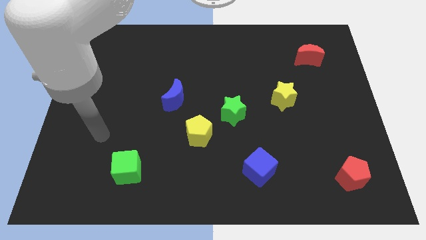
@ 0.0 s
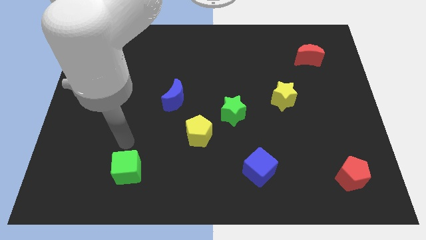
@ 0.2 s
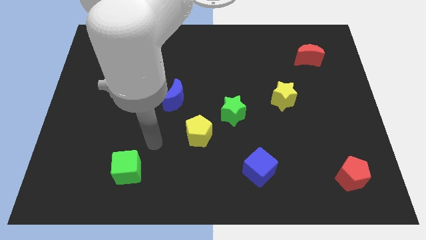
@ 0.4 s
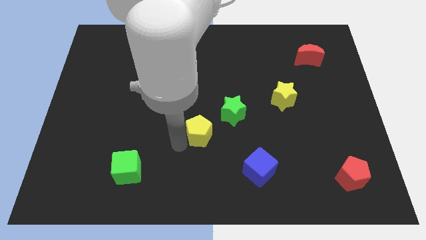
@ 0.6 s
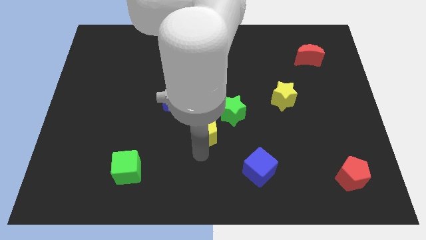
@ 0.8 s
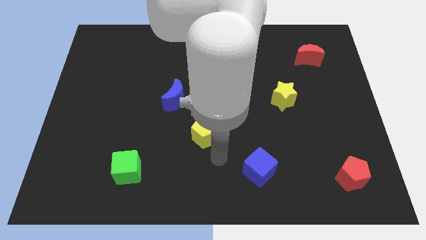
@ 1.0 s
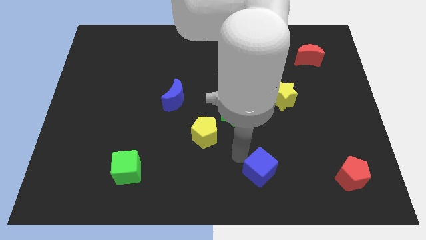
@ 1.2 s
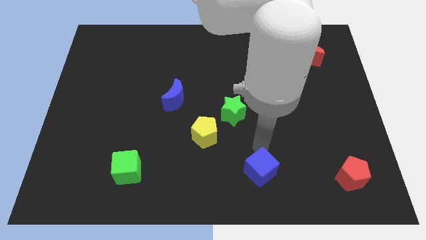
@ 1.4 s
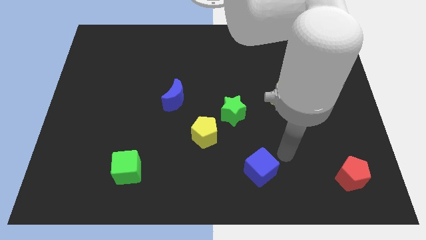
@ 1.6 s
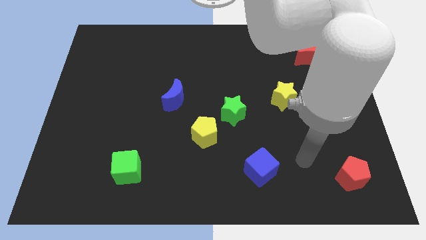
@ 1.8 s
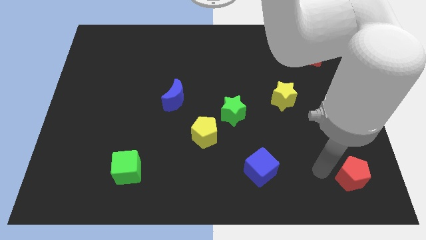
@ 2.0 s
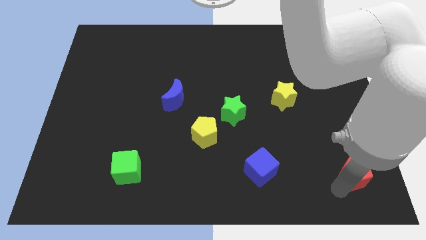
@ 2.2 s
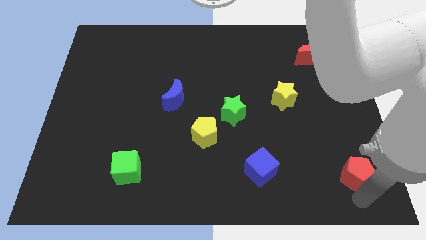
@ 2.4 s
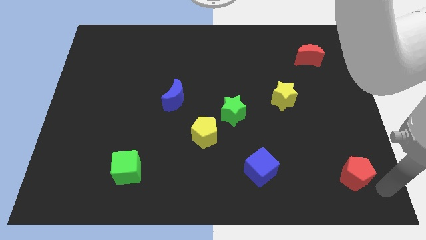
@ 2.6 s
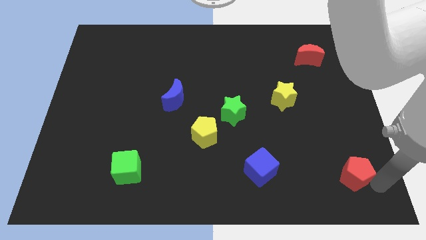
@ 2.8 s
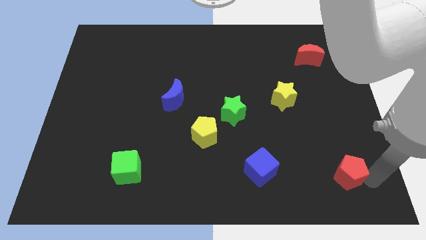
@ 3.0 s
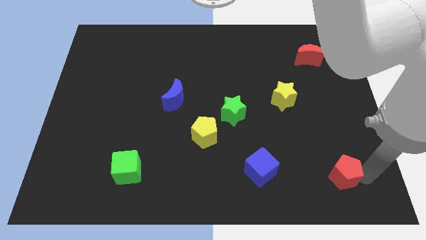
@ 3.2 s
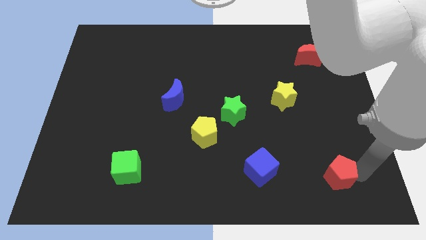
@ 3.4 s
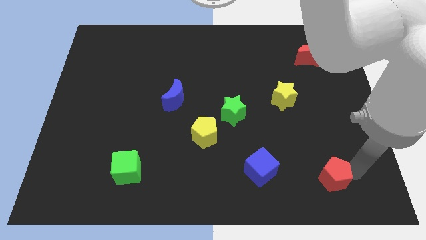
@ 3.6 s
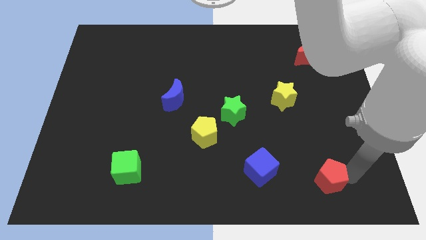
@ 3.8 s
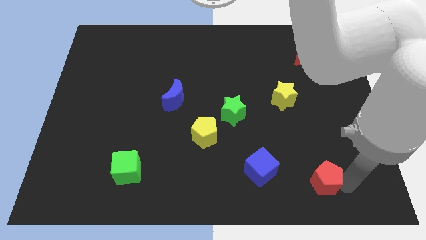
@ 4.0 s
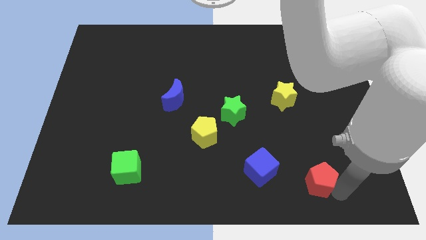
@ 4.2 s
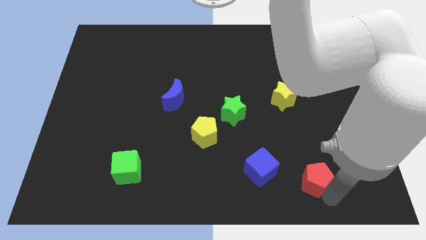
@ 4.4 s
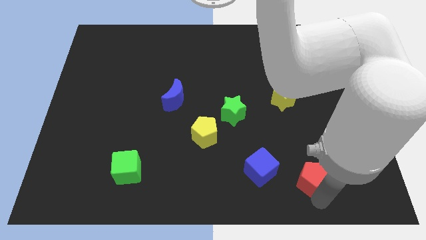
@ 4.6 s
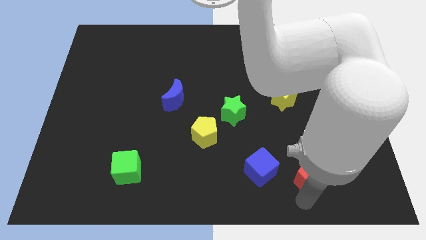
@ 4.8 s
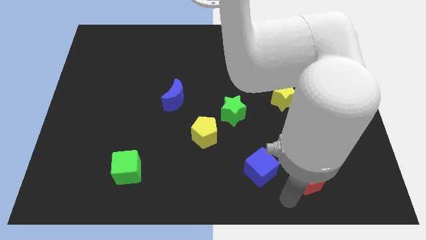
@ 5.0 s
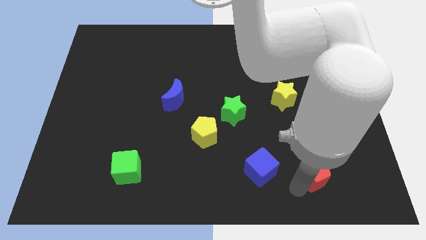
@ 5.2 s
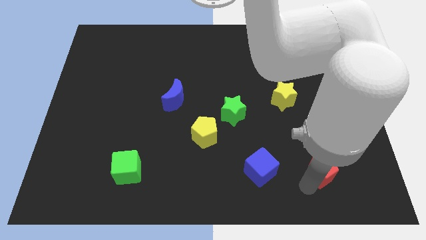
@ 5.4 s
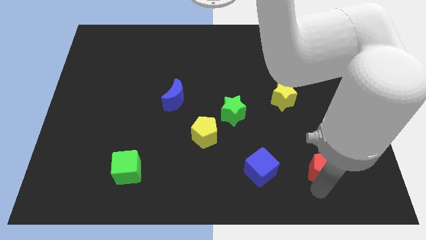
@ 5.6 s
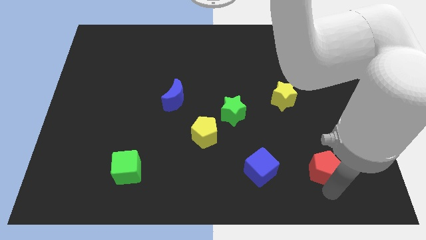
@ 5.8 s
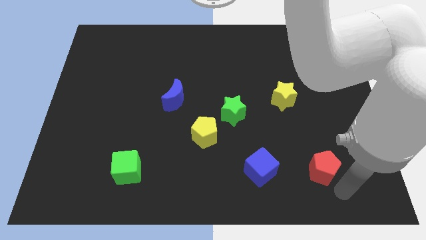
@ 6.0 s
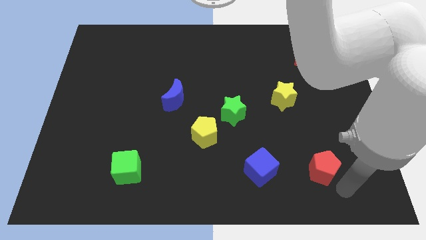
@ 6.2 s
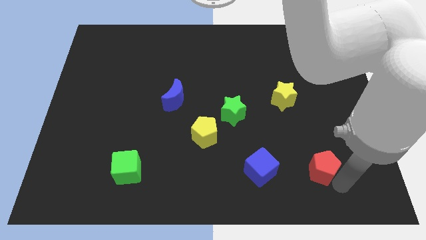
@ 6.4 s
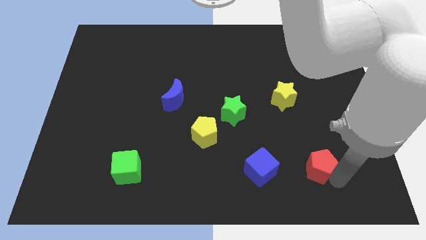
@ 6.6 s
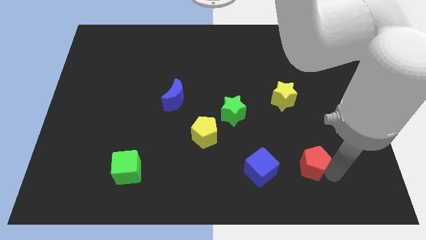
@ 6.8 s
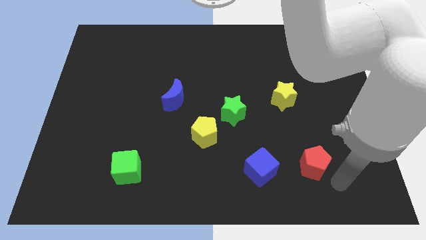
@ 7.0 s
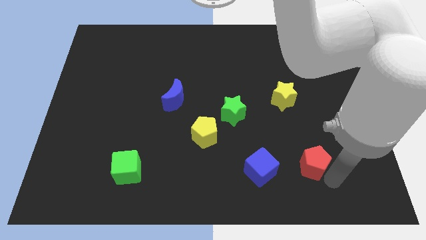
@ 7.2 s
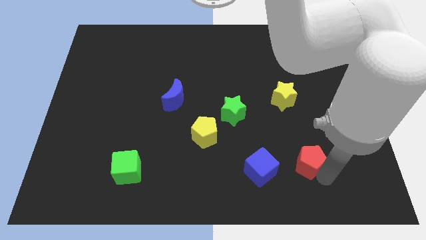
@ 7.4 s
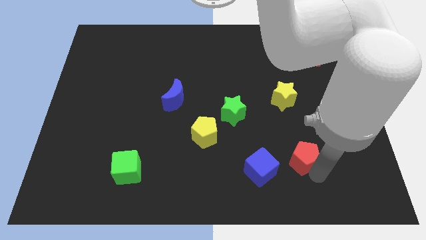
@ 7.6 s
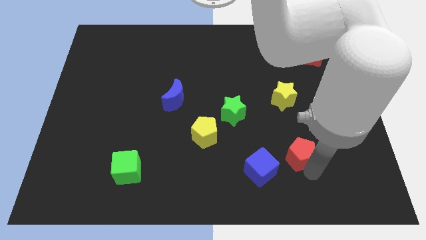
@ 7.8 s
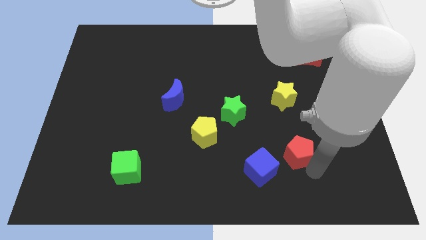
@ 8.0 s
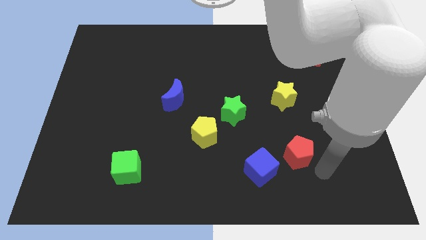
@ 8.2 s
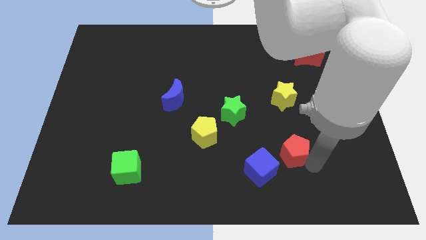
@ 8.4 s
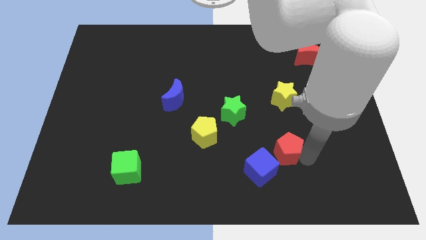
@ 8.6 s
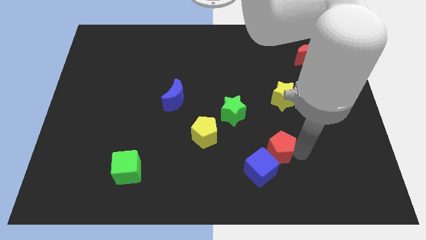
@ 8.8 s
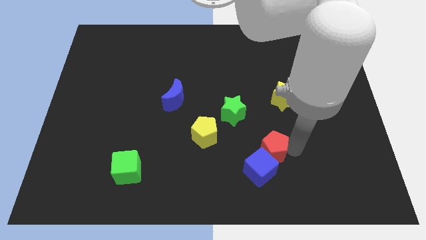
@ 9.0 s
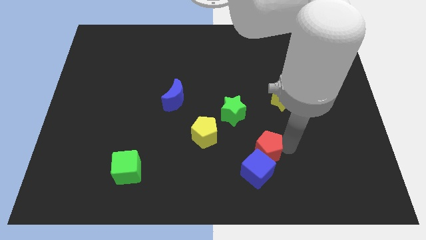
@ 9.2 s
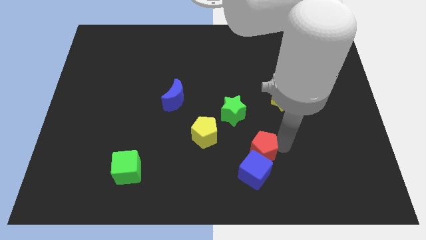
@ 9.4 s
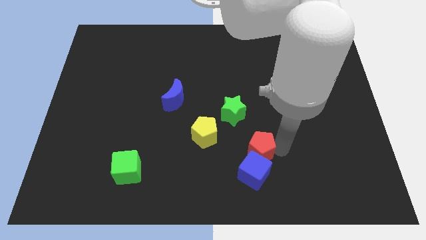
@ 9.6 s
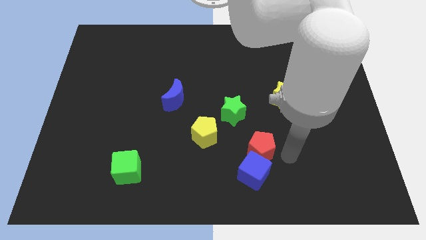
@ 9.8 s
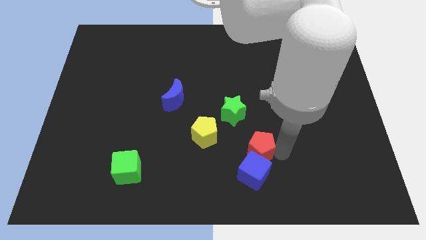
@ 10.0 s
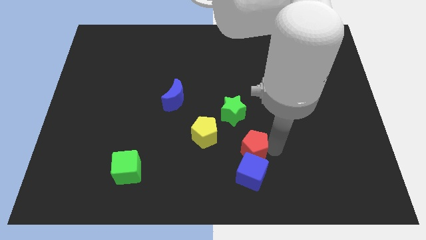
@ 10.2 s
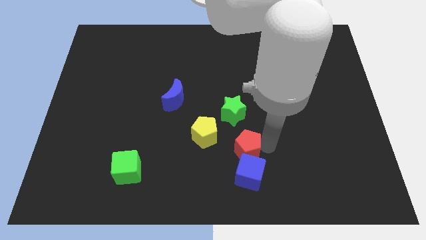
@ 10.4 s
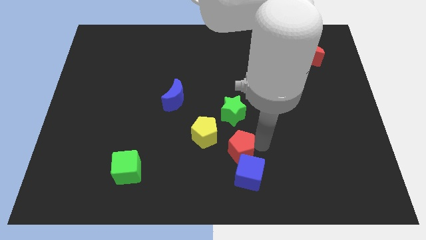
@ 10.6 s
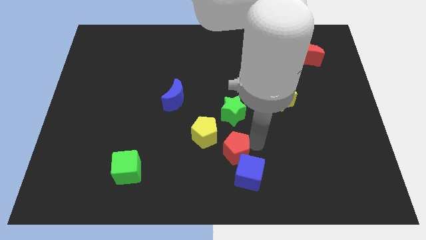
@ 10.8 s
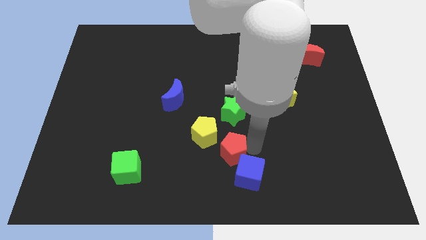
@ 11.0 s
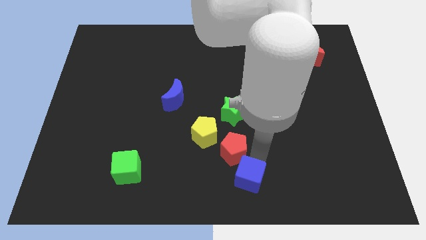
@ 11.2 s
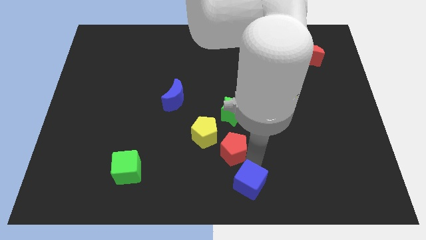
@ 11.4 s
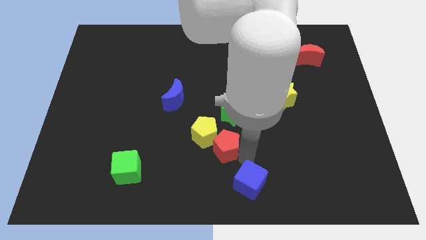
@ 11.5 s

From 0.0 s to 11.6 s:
put the red pentagon towards the yellow pentagon

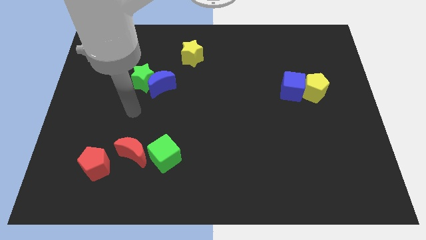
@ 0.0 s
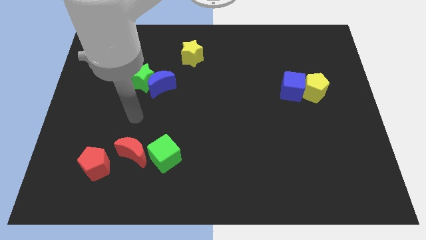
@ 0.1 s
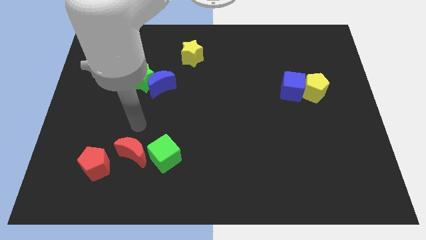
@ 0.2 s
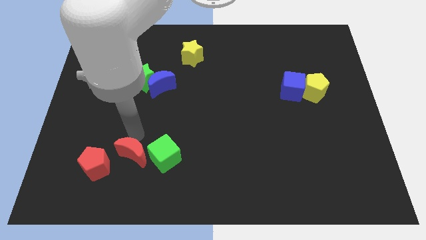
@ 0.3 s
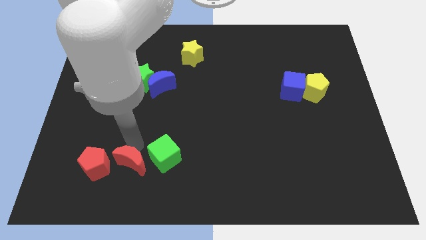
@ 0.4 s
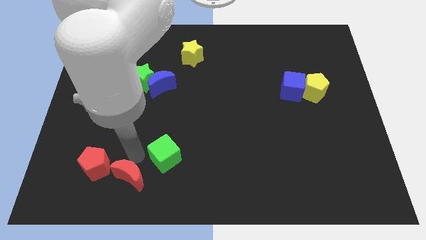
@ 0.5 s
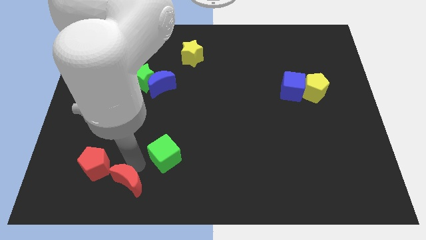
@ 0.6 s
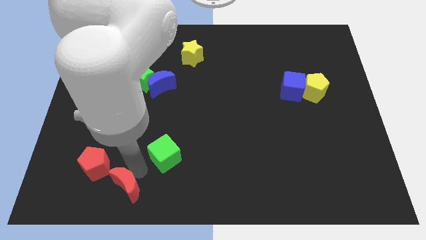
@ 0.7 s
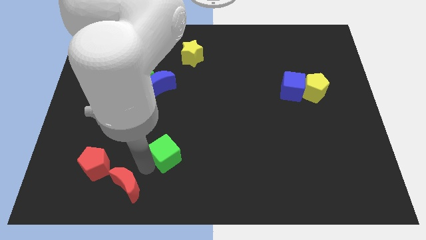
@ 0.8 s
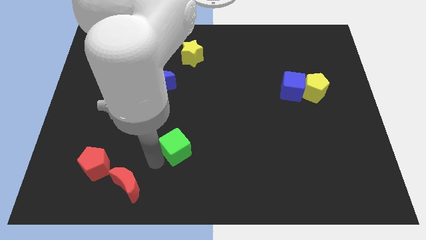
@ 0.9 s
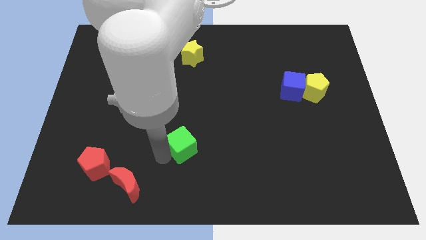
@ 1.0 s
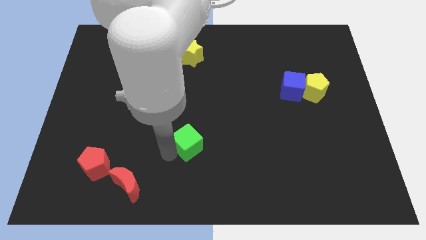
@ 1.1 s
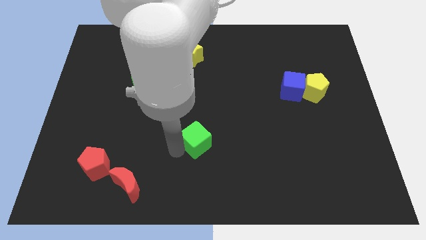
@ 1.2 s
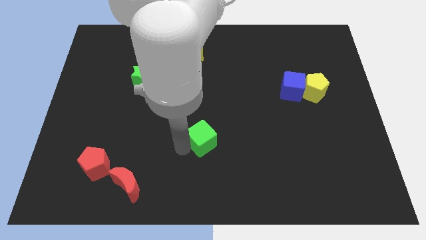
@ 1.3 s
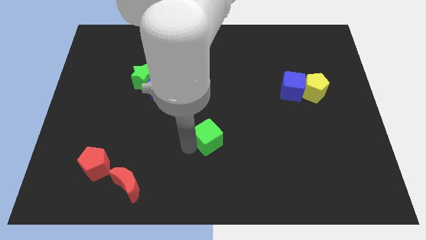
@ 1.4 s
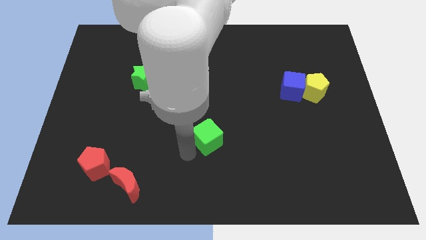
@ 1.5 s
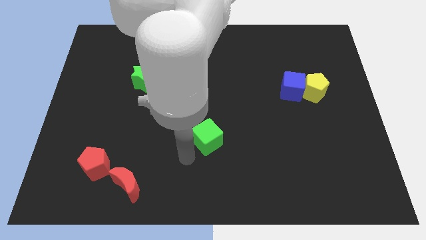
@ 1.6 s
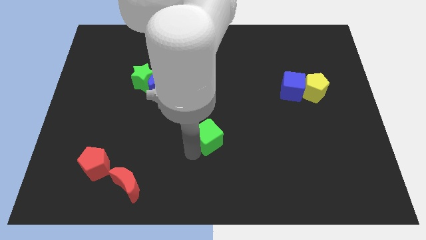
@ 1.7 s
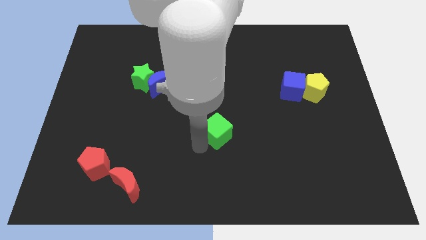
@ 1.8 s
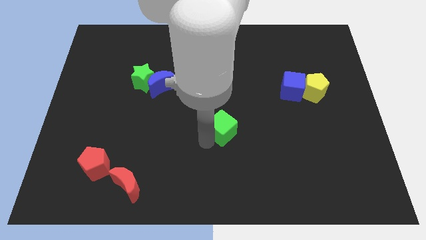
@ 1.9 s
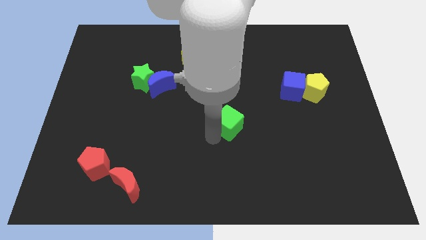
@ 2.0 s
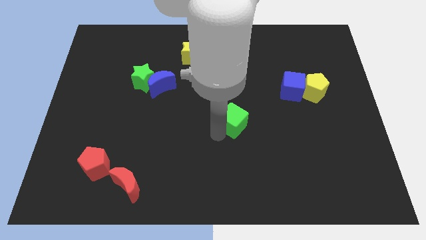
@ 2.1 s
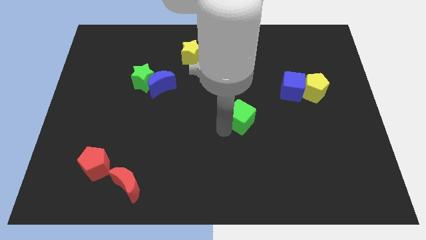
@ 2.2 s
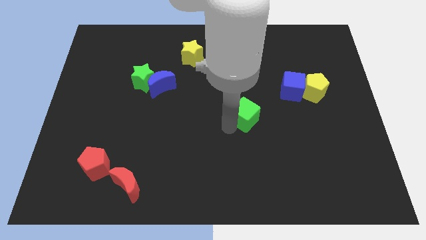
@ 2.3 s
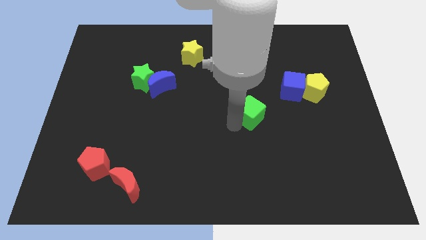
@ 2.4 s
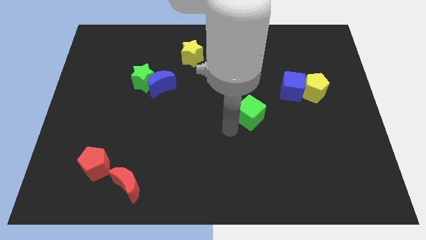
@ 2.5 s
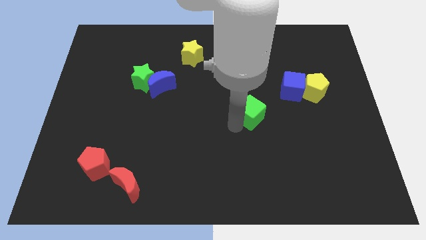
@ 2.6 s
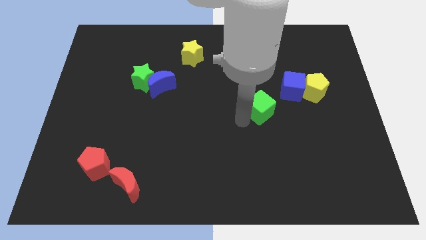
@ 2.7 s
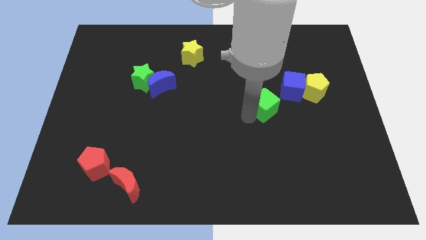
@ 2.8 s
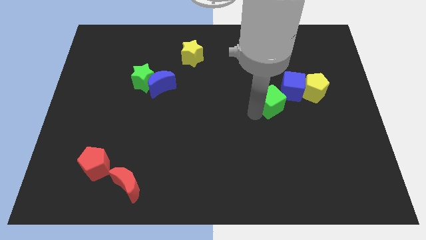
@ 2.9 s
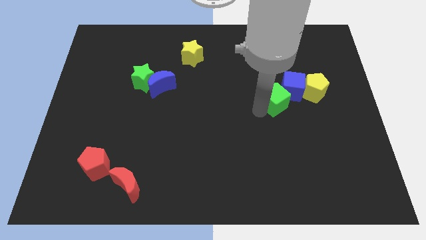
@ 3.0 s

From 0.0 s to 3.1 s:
move the green cube to the blue cube
